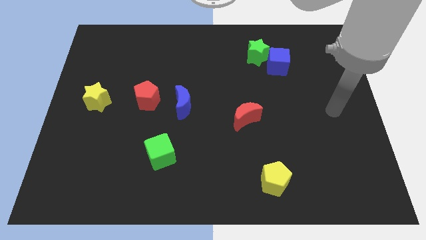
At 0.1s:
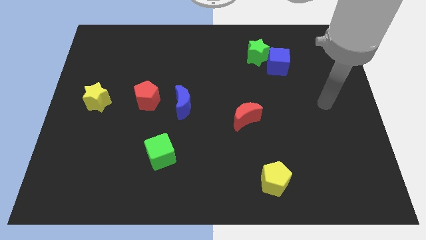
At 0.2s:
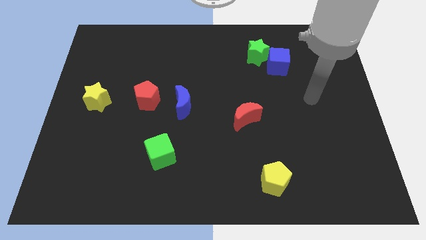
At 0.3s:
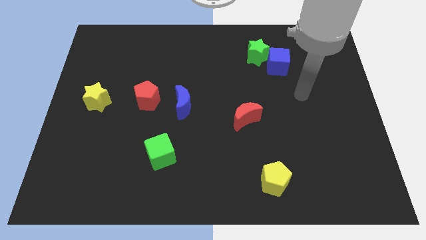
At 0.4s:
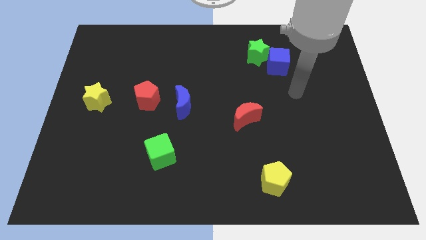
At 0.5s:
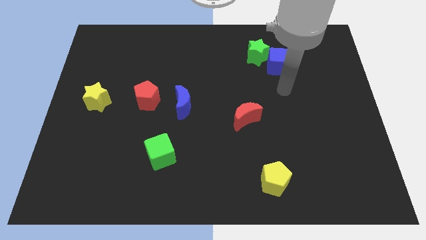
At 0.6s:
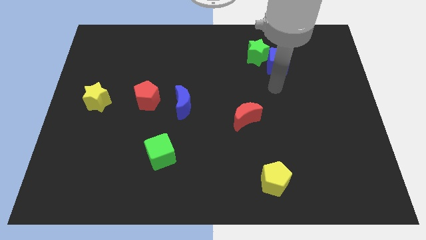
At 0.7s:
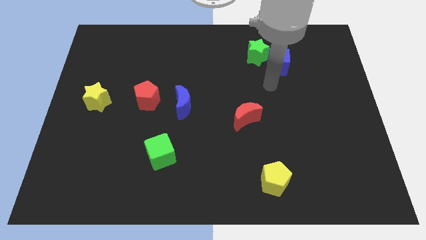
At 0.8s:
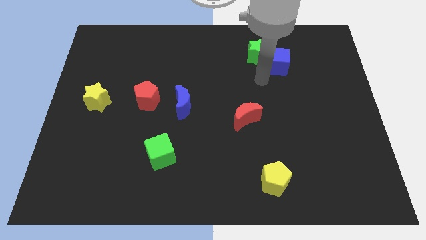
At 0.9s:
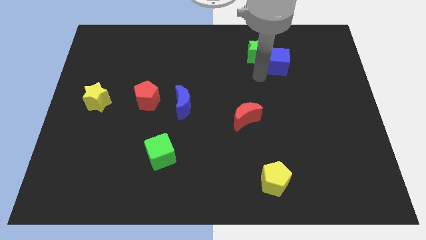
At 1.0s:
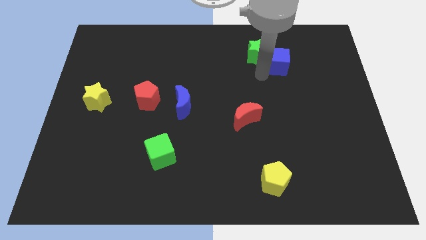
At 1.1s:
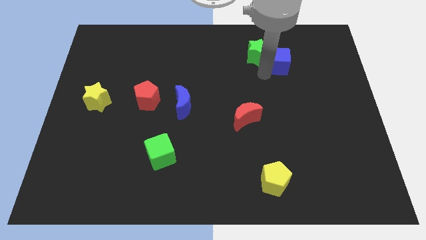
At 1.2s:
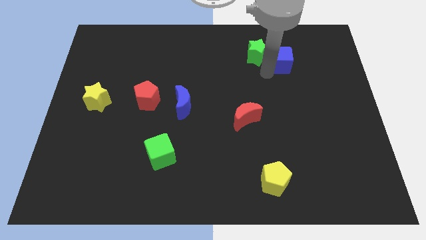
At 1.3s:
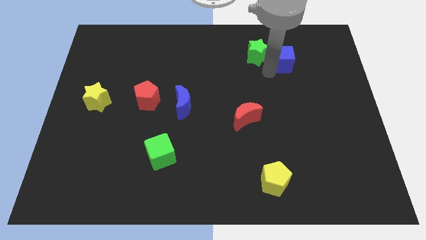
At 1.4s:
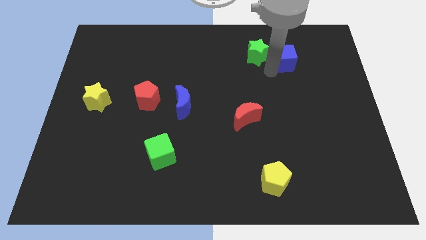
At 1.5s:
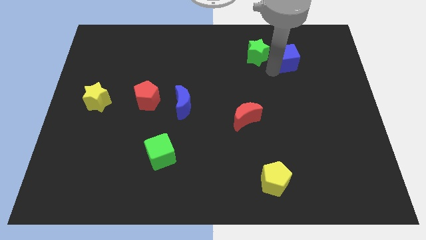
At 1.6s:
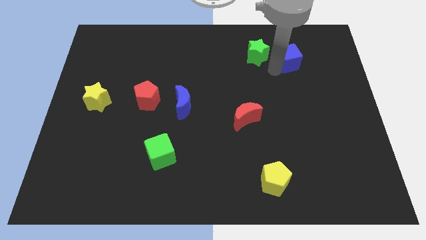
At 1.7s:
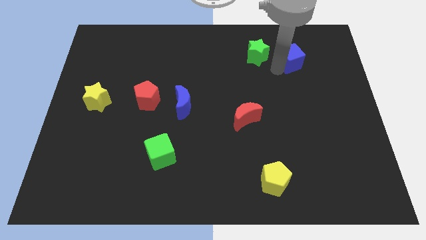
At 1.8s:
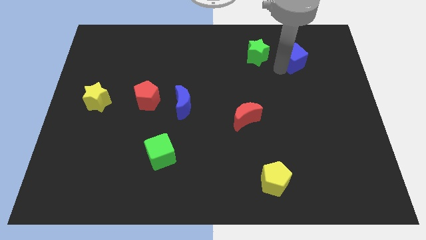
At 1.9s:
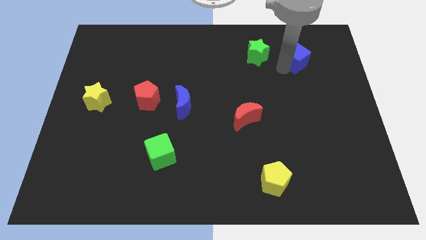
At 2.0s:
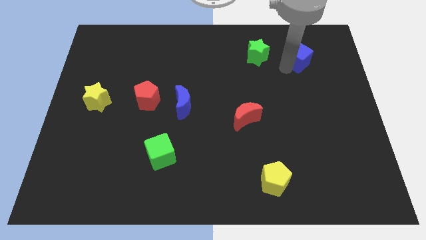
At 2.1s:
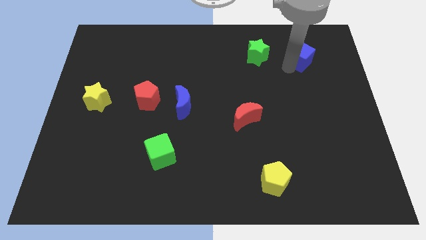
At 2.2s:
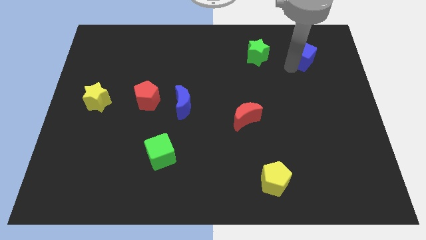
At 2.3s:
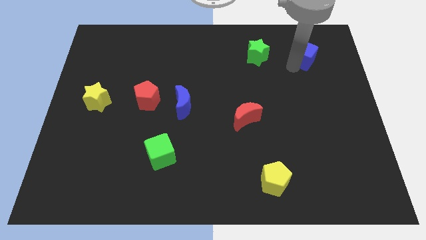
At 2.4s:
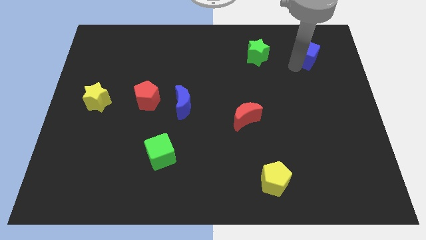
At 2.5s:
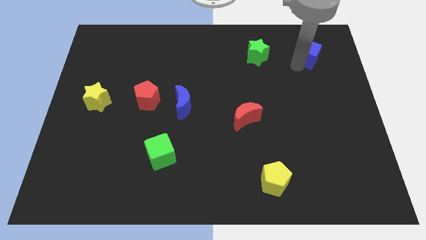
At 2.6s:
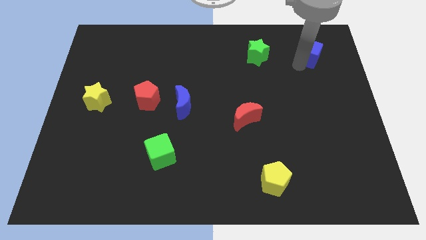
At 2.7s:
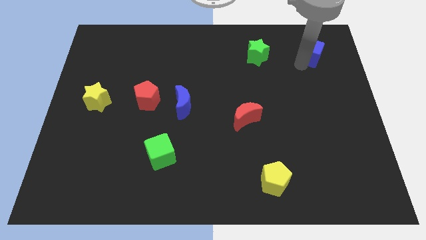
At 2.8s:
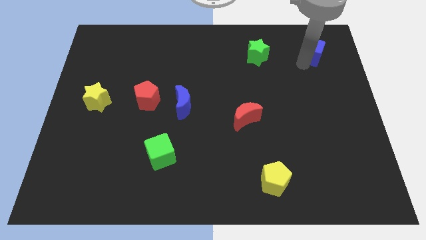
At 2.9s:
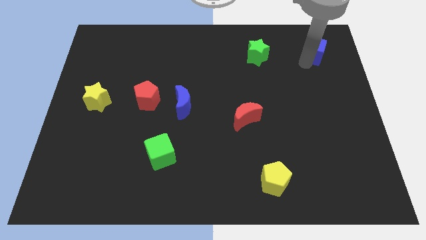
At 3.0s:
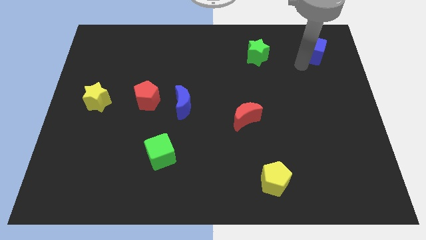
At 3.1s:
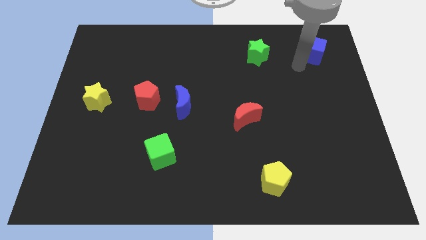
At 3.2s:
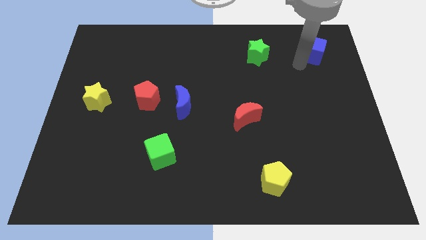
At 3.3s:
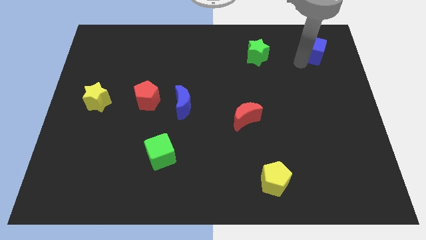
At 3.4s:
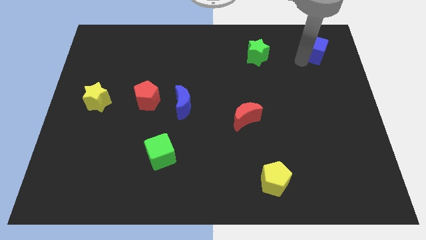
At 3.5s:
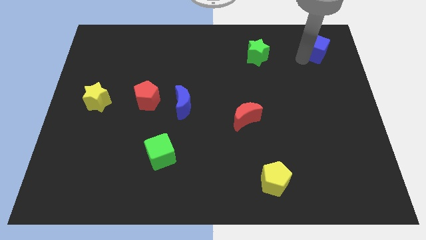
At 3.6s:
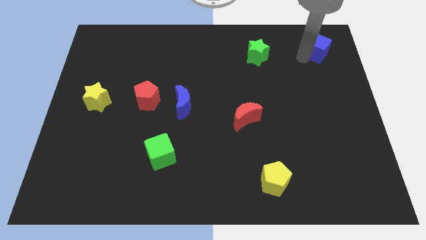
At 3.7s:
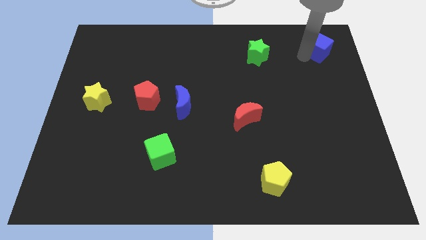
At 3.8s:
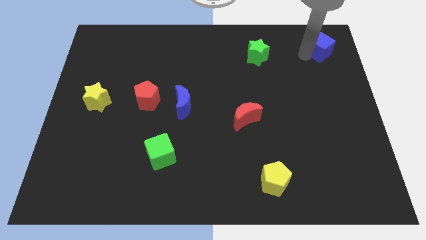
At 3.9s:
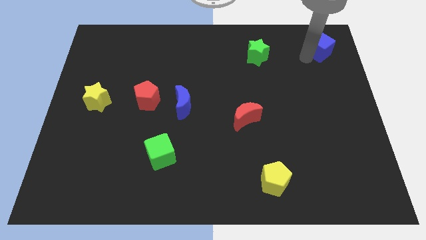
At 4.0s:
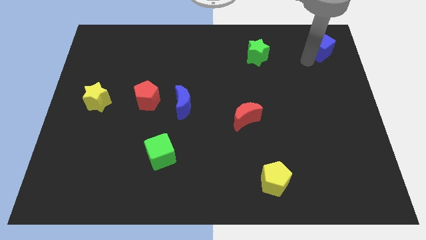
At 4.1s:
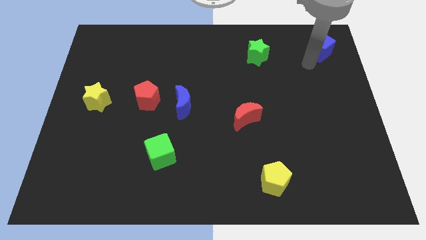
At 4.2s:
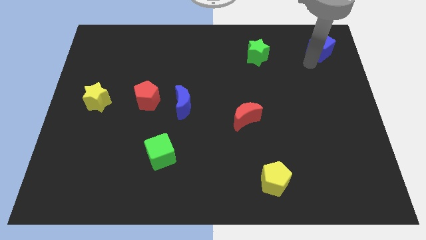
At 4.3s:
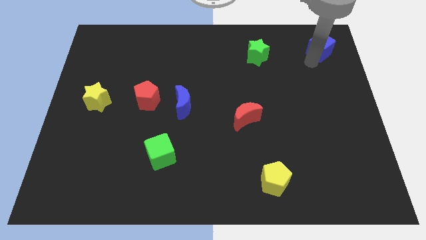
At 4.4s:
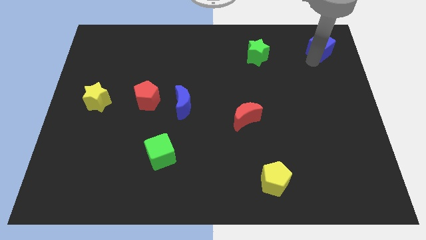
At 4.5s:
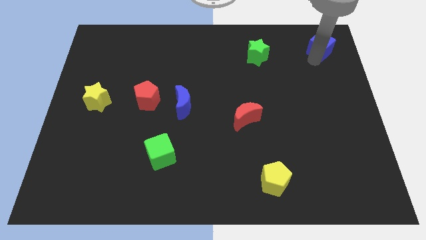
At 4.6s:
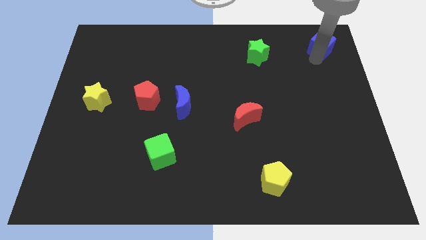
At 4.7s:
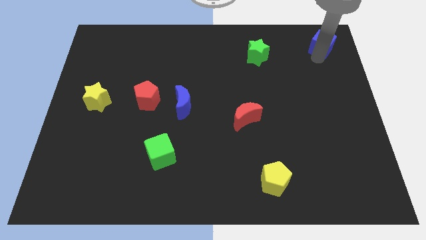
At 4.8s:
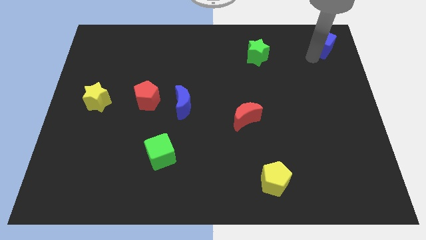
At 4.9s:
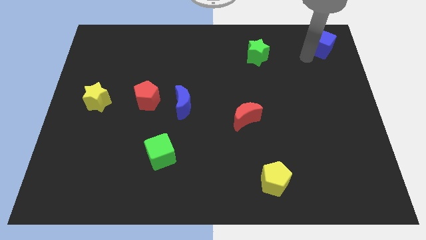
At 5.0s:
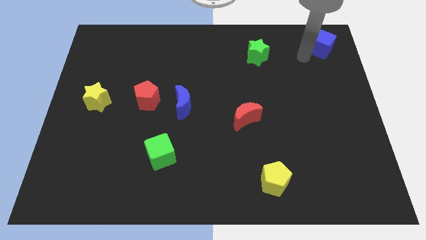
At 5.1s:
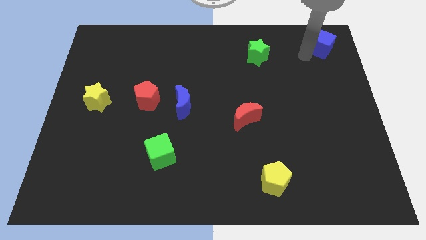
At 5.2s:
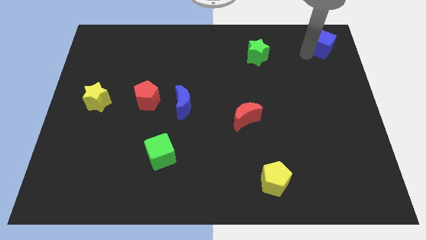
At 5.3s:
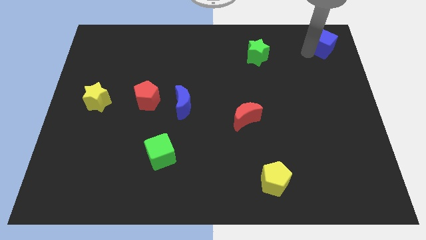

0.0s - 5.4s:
put the blue cube to the top right of the board
